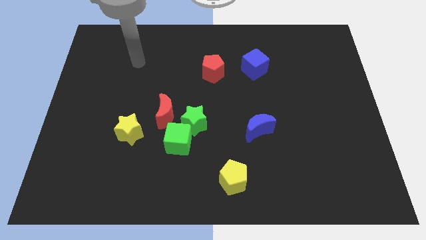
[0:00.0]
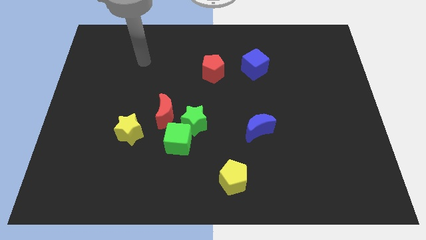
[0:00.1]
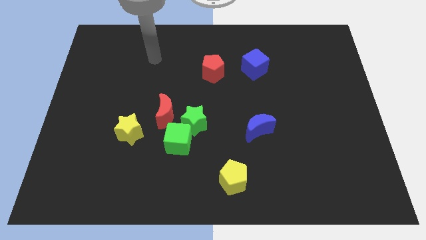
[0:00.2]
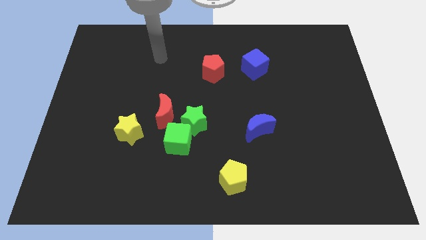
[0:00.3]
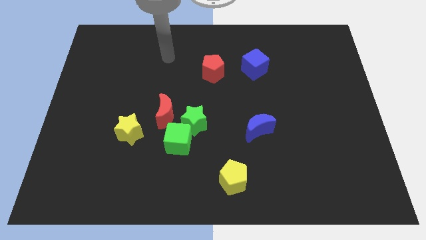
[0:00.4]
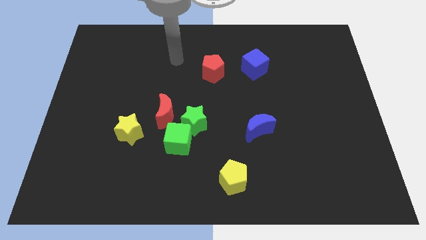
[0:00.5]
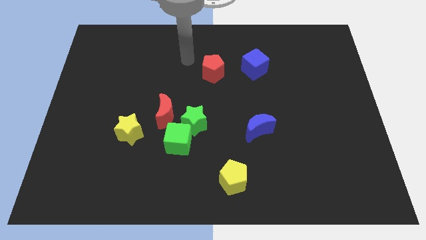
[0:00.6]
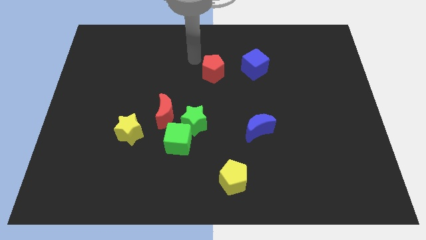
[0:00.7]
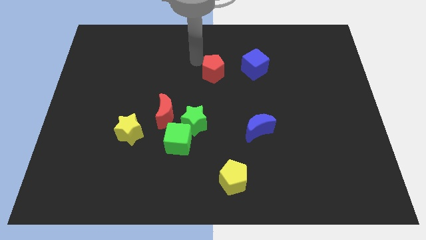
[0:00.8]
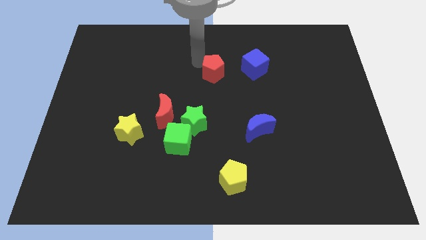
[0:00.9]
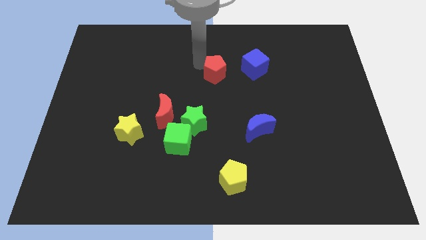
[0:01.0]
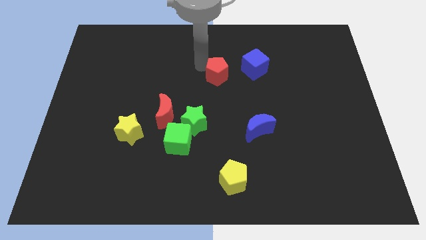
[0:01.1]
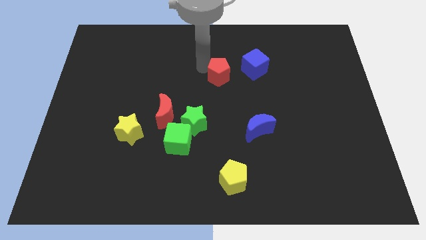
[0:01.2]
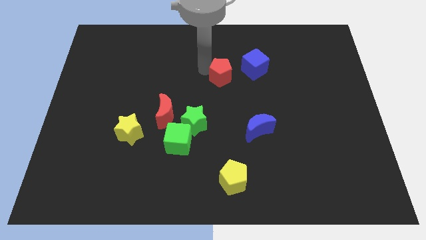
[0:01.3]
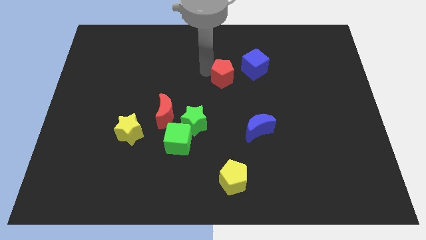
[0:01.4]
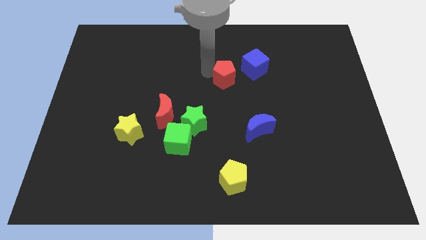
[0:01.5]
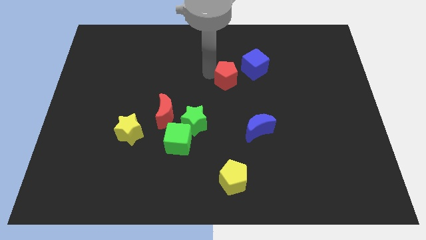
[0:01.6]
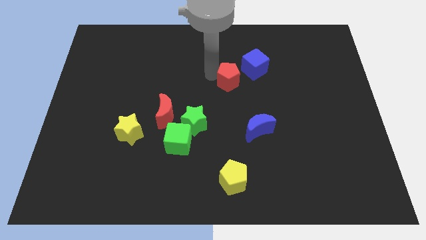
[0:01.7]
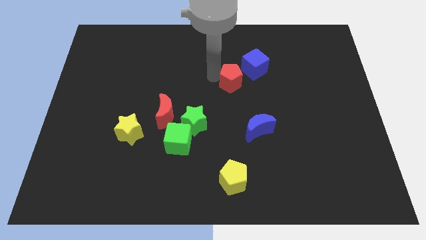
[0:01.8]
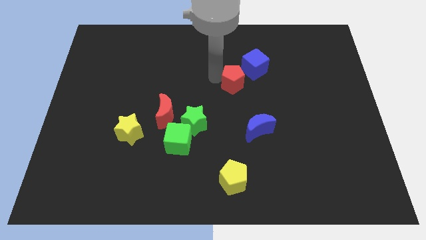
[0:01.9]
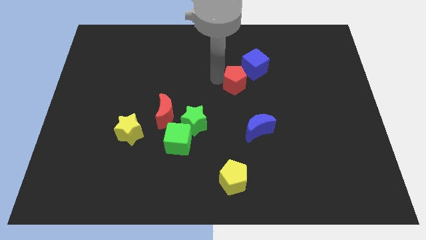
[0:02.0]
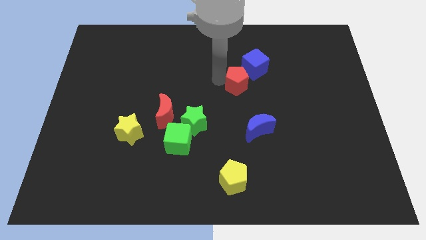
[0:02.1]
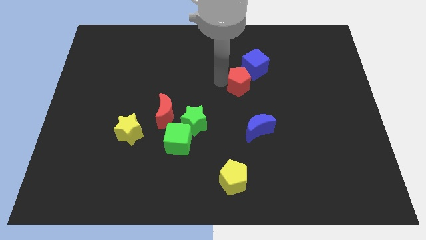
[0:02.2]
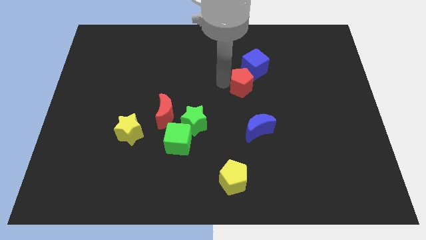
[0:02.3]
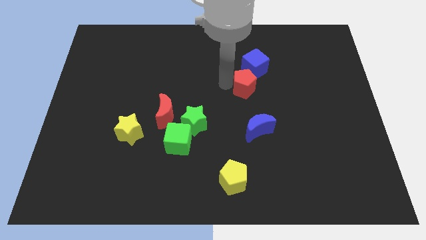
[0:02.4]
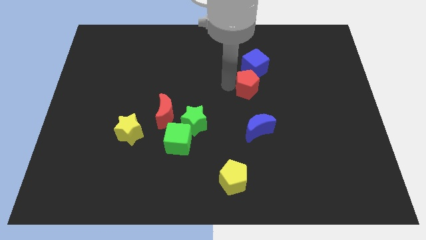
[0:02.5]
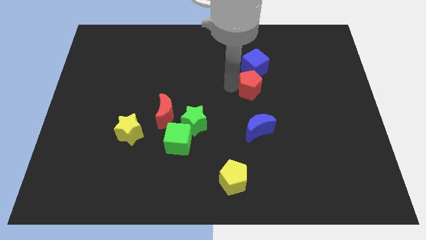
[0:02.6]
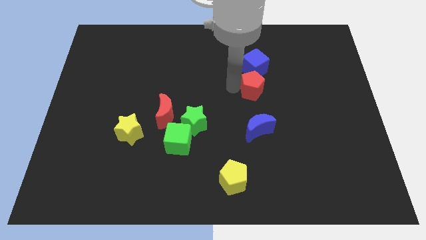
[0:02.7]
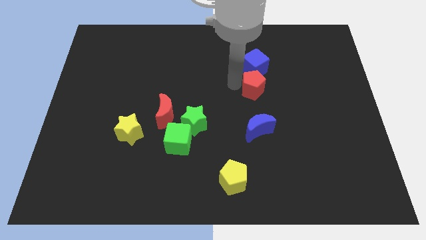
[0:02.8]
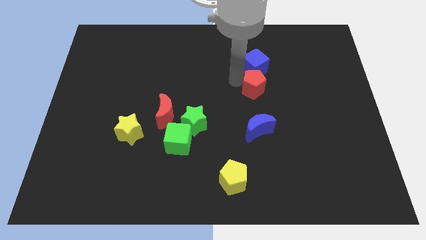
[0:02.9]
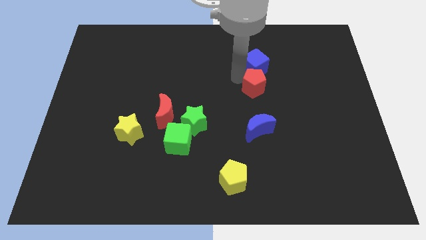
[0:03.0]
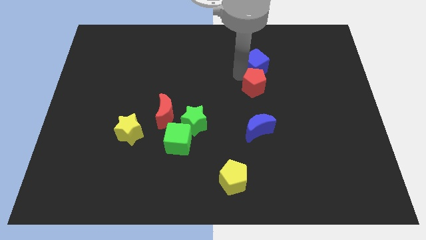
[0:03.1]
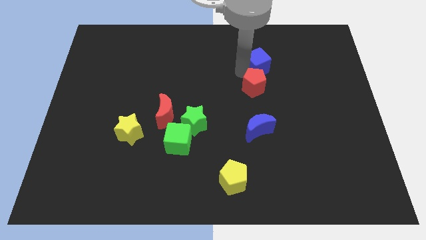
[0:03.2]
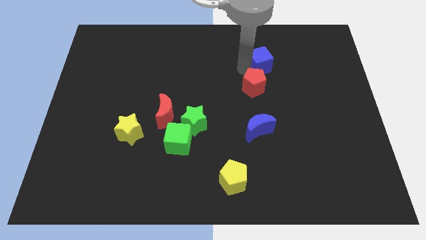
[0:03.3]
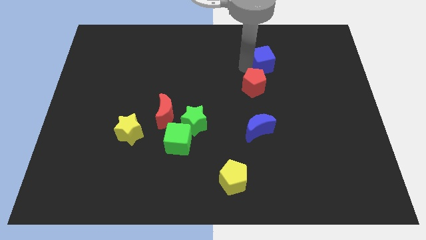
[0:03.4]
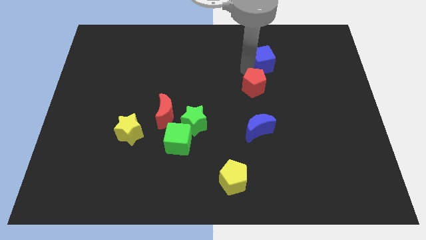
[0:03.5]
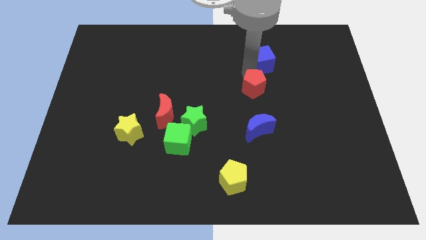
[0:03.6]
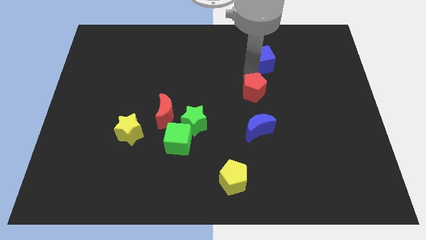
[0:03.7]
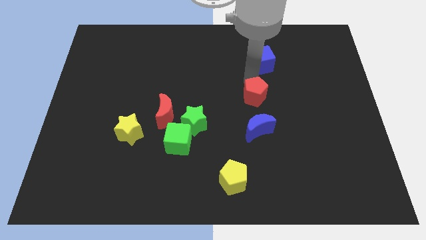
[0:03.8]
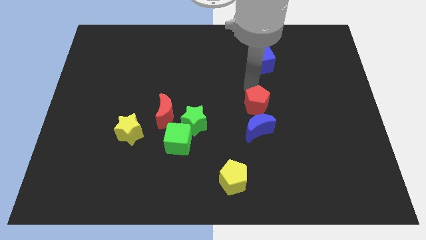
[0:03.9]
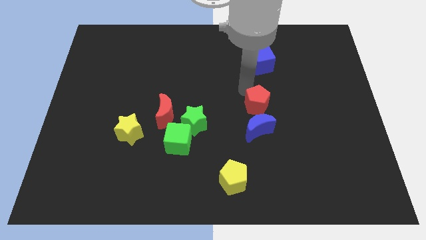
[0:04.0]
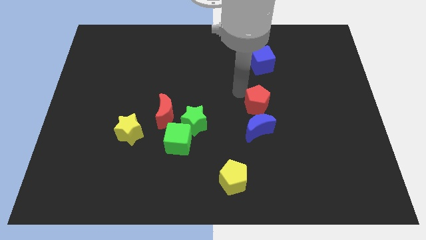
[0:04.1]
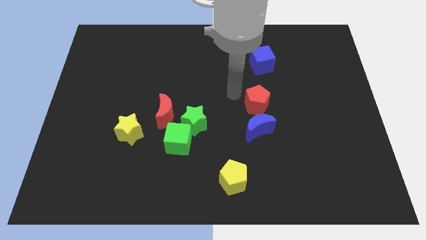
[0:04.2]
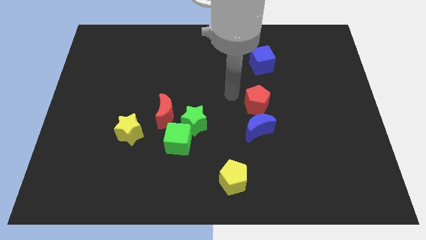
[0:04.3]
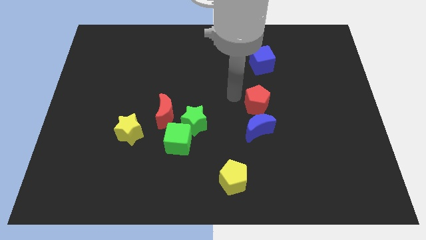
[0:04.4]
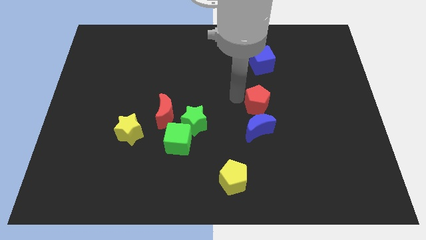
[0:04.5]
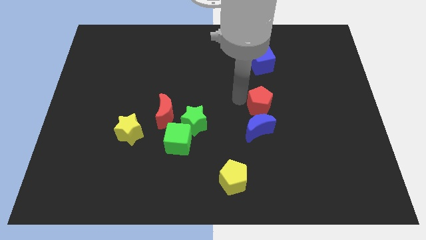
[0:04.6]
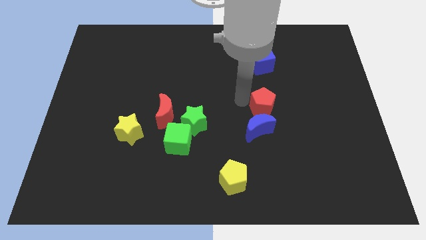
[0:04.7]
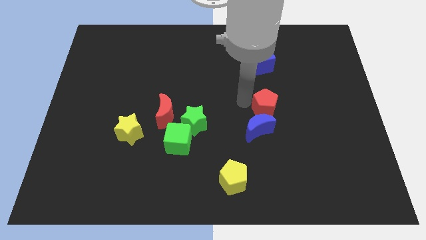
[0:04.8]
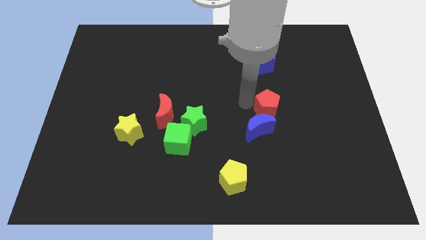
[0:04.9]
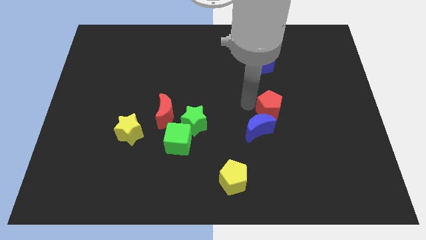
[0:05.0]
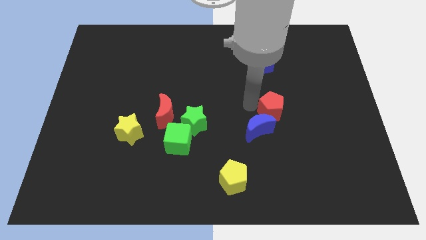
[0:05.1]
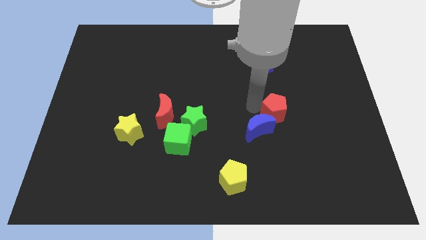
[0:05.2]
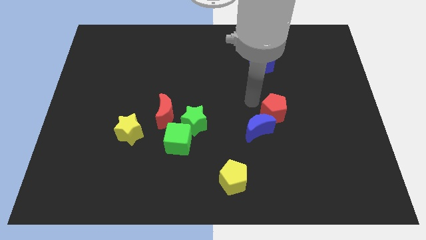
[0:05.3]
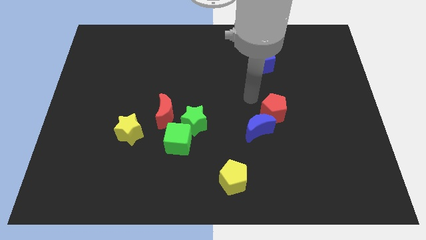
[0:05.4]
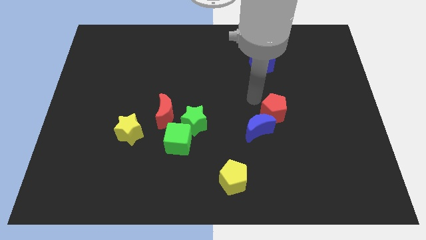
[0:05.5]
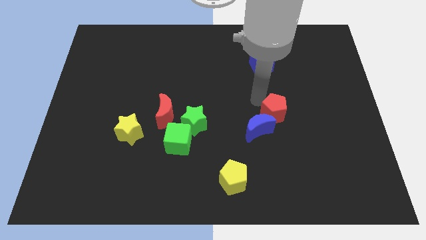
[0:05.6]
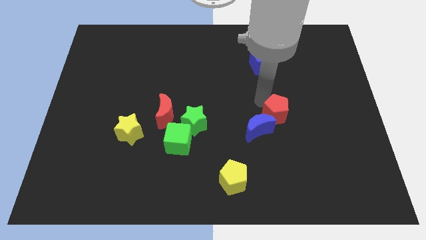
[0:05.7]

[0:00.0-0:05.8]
move the red pentagon to the right side of the blue moon

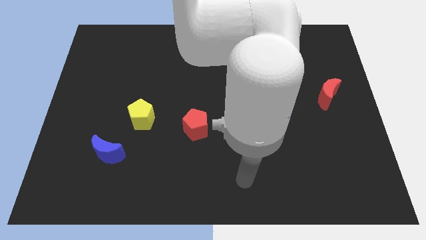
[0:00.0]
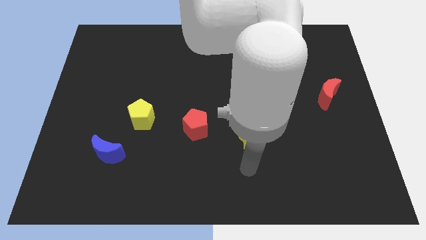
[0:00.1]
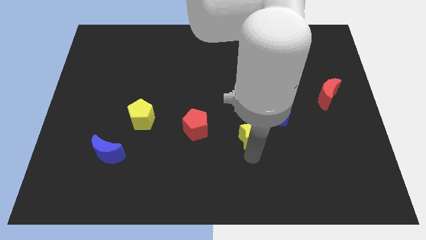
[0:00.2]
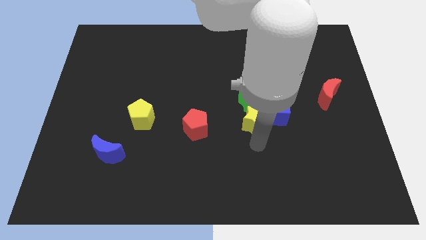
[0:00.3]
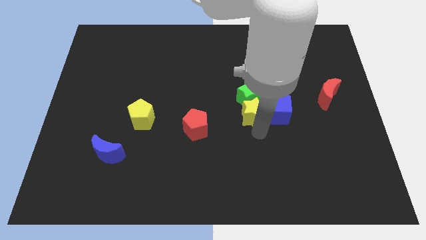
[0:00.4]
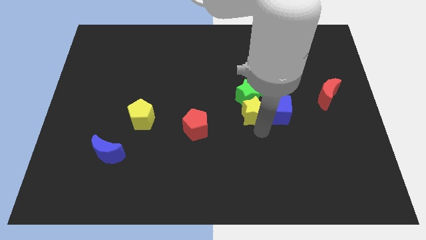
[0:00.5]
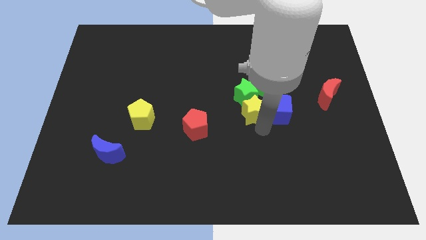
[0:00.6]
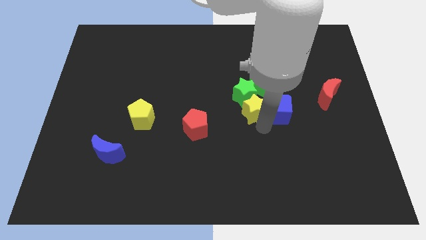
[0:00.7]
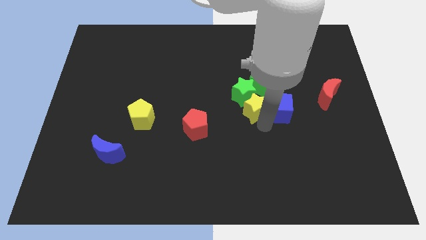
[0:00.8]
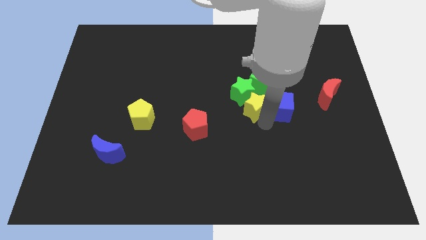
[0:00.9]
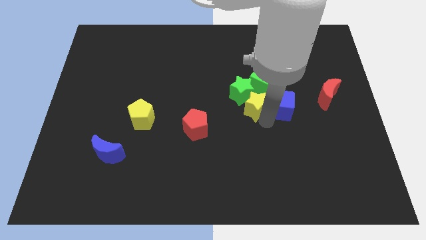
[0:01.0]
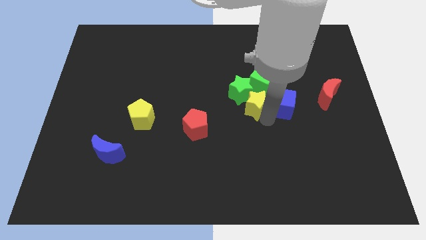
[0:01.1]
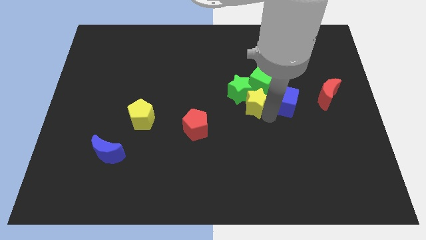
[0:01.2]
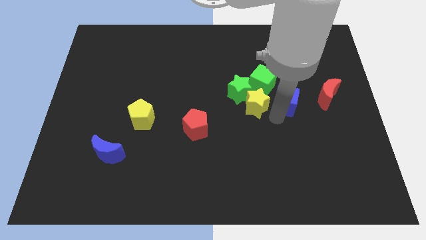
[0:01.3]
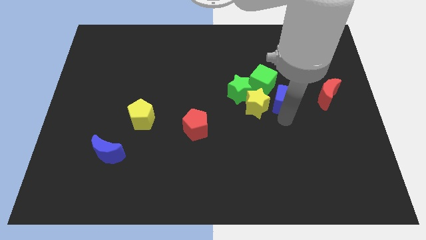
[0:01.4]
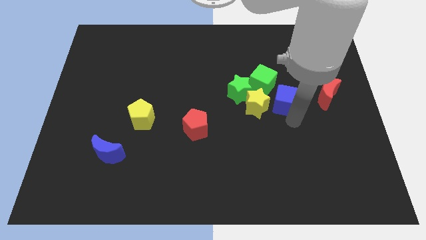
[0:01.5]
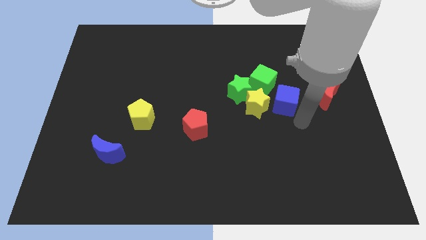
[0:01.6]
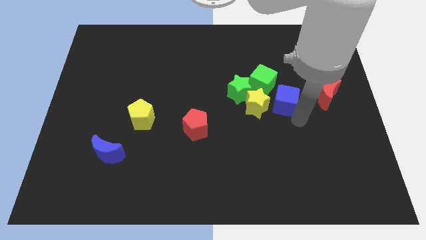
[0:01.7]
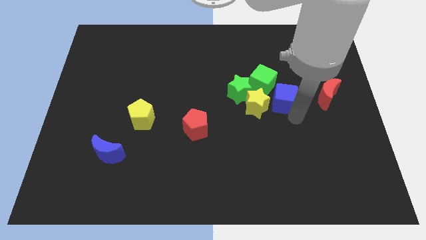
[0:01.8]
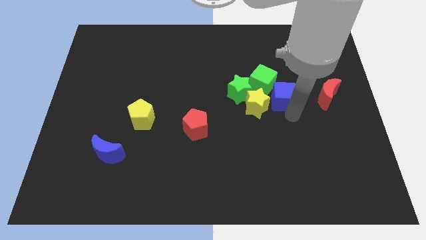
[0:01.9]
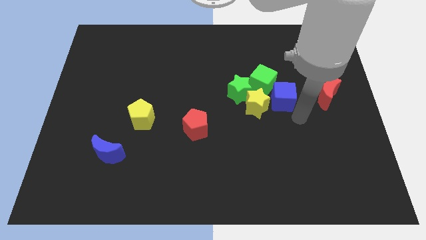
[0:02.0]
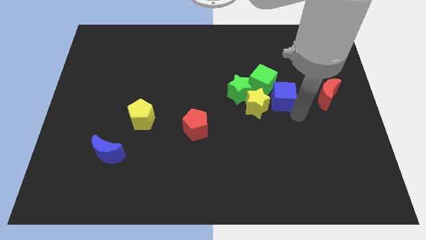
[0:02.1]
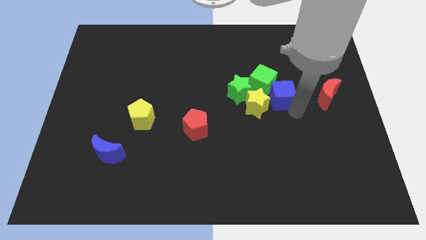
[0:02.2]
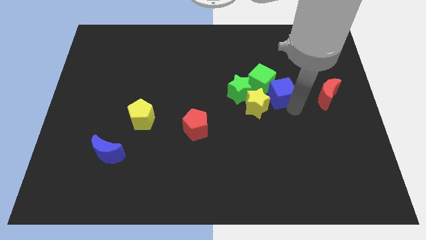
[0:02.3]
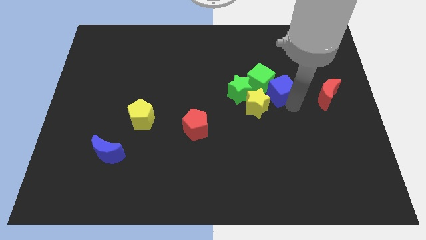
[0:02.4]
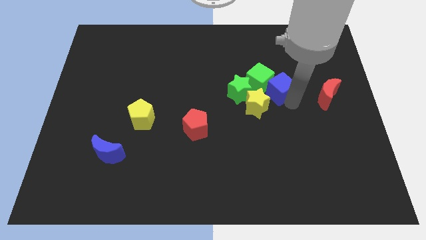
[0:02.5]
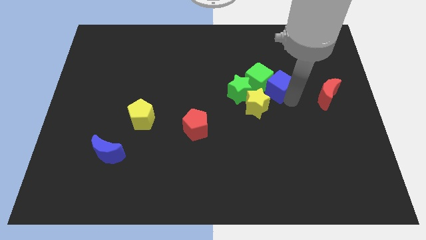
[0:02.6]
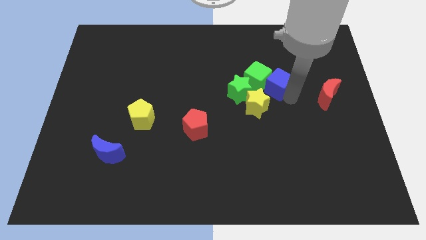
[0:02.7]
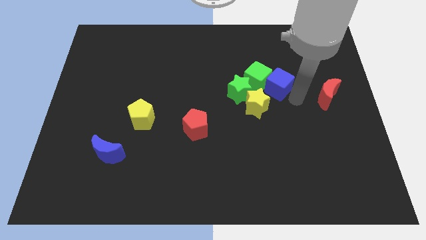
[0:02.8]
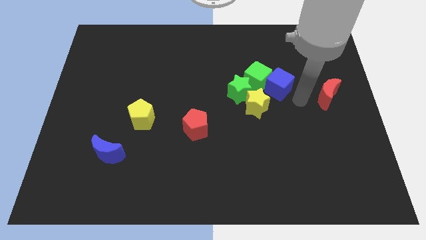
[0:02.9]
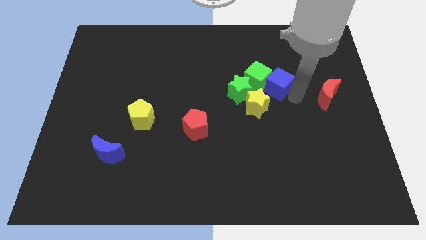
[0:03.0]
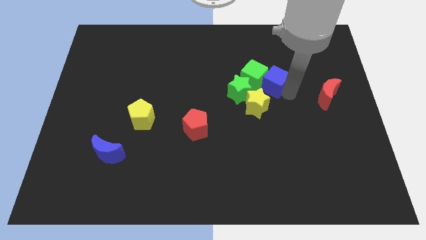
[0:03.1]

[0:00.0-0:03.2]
move the blue cube diagonally up and to the right of the green star
